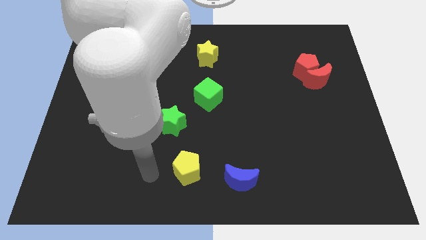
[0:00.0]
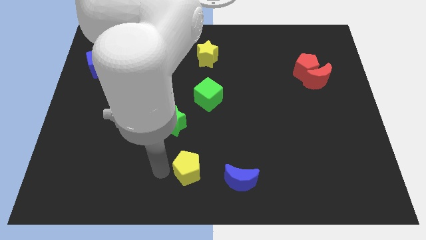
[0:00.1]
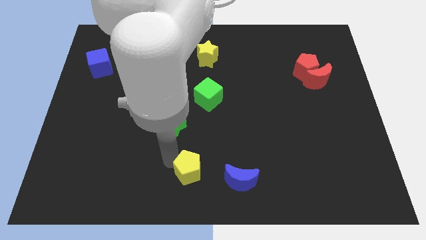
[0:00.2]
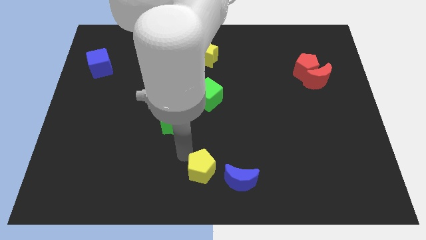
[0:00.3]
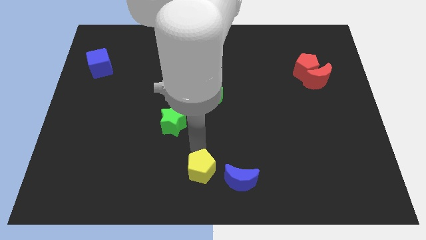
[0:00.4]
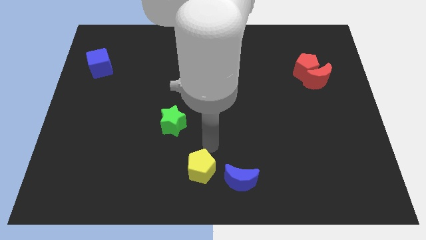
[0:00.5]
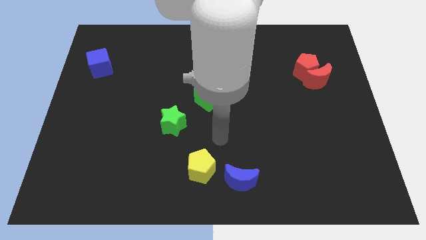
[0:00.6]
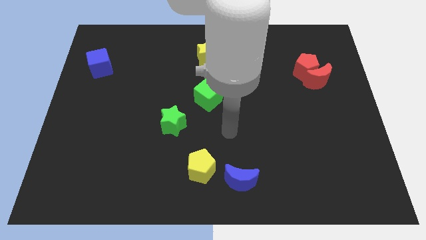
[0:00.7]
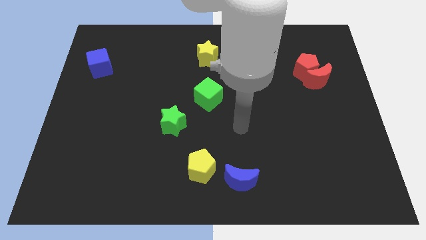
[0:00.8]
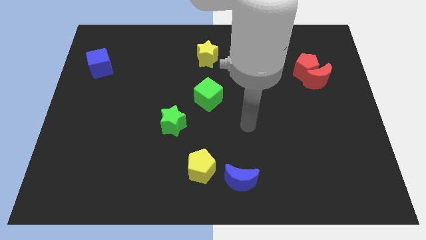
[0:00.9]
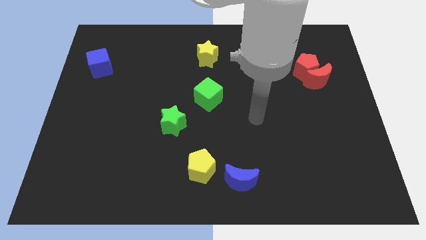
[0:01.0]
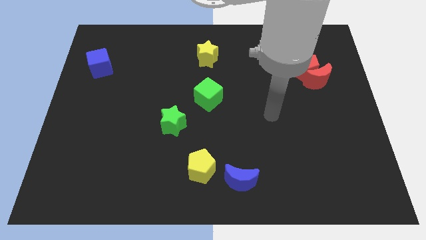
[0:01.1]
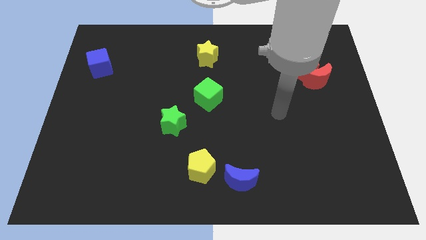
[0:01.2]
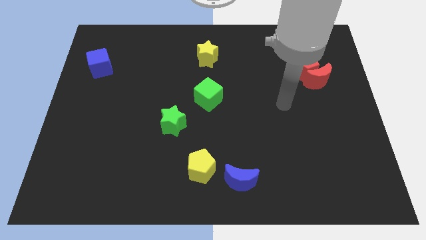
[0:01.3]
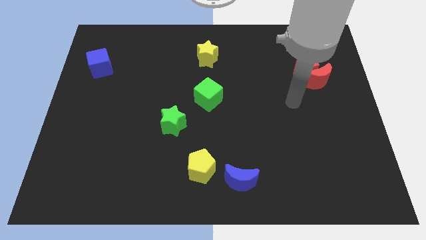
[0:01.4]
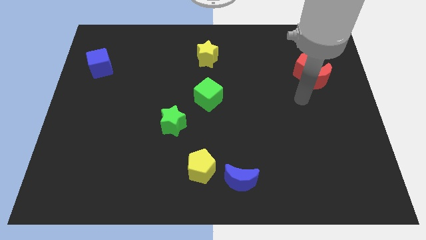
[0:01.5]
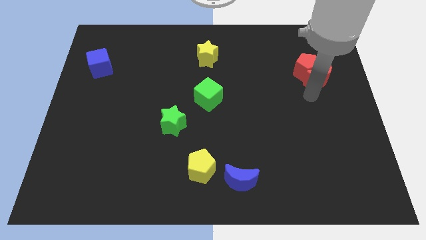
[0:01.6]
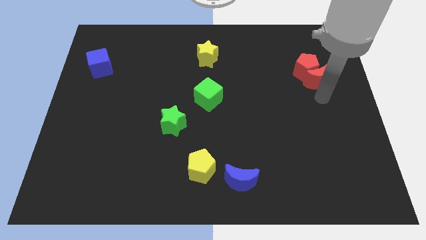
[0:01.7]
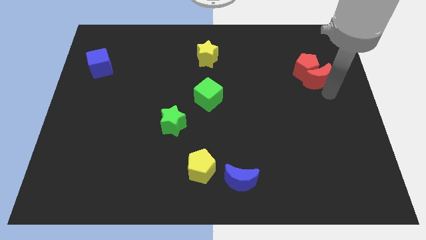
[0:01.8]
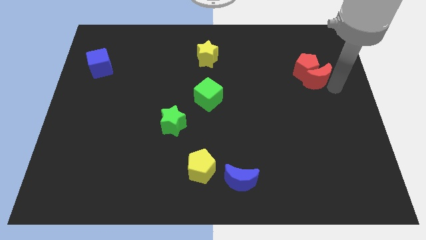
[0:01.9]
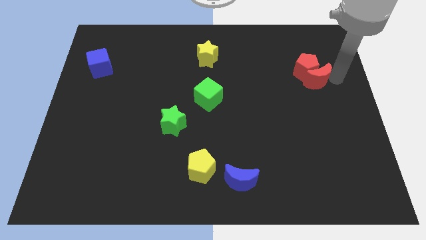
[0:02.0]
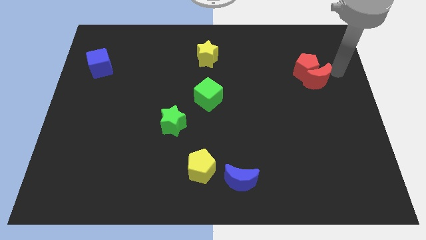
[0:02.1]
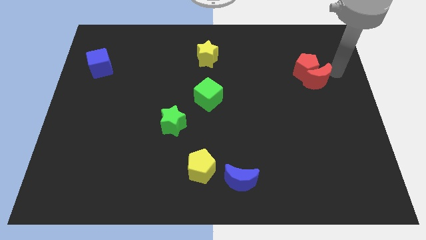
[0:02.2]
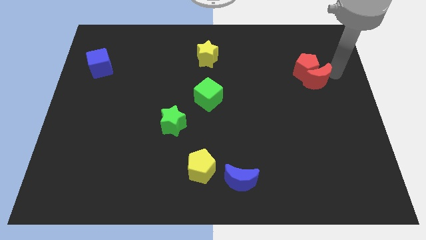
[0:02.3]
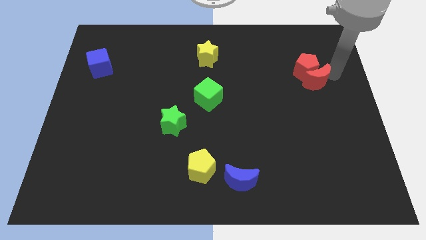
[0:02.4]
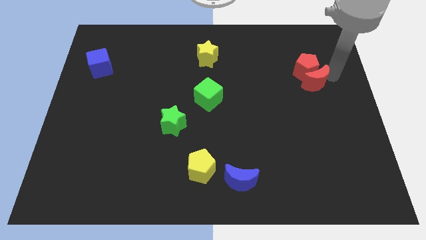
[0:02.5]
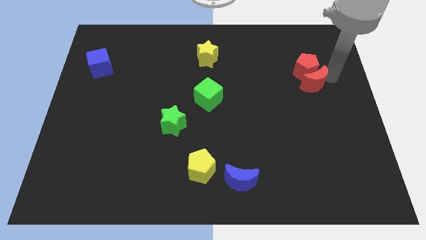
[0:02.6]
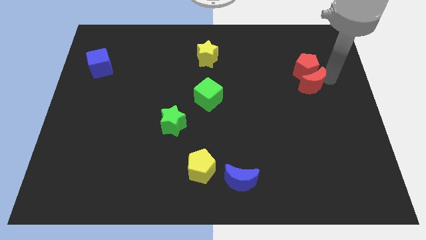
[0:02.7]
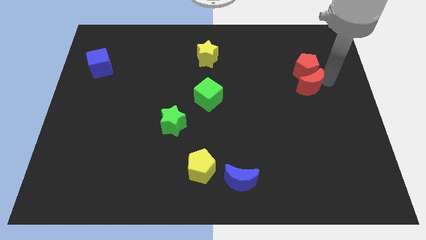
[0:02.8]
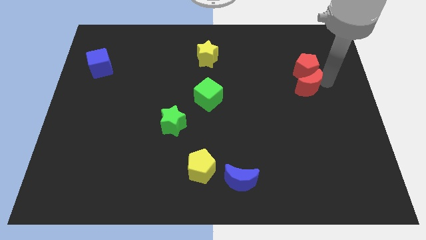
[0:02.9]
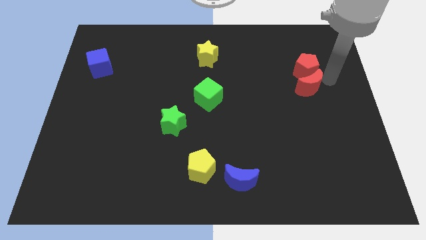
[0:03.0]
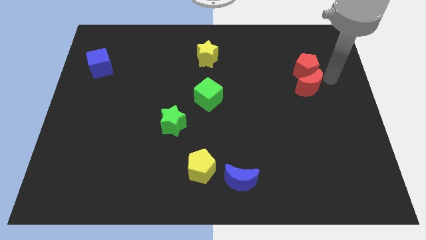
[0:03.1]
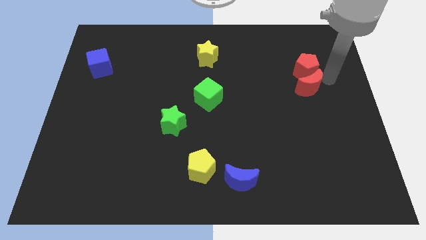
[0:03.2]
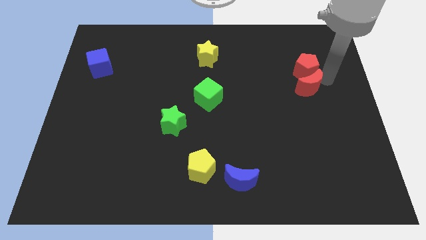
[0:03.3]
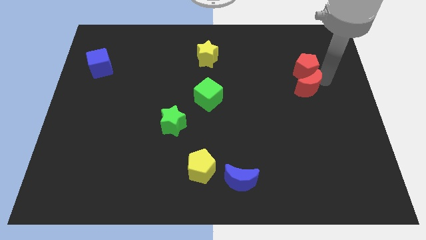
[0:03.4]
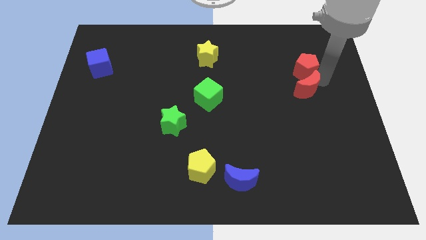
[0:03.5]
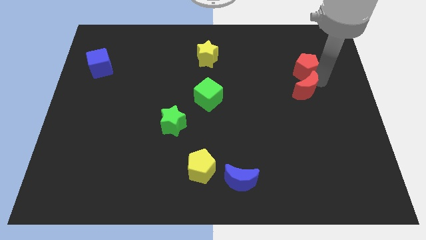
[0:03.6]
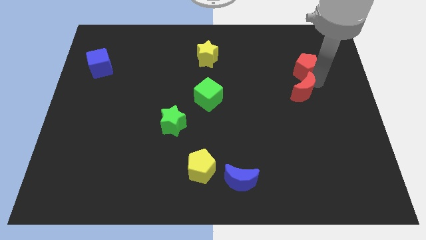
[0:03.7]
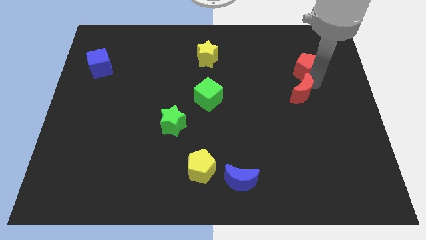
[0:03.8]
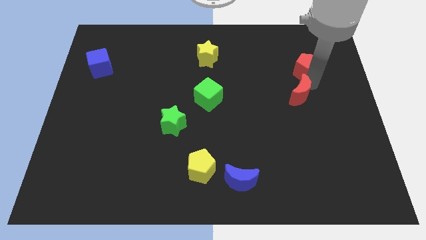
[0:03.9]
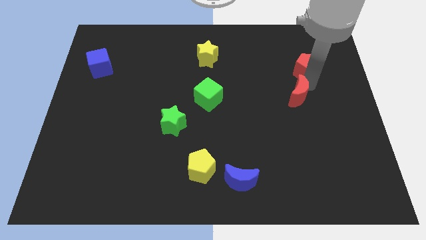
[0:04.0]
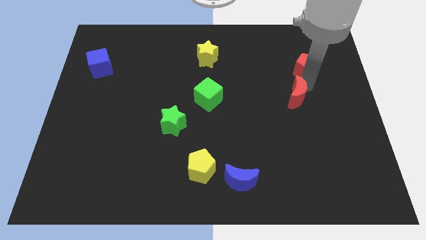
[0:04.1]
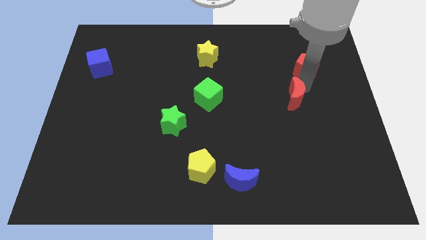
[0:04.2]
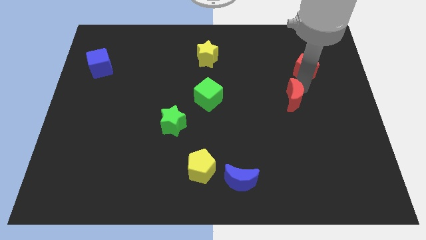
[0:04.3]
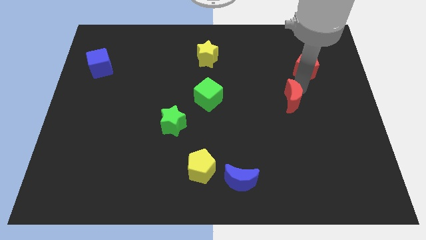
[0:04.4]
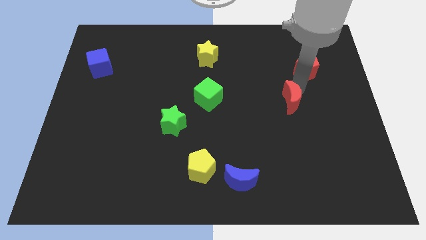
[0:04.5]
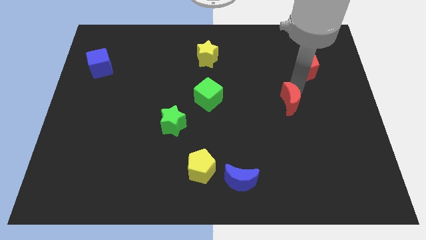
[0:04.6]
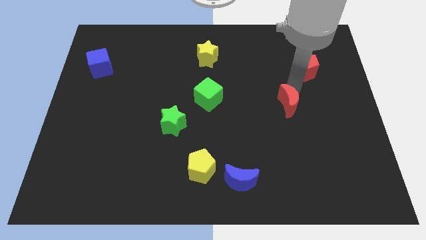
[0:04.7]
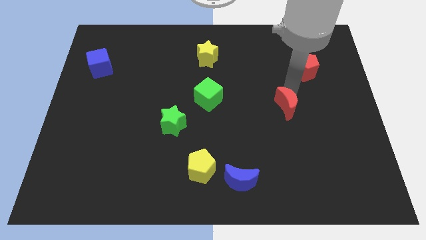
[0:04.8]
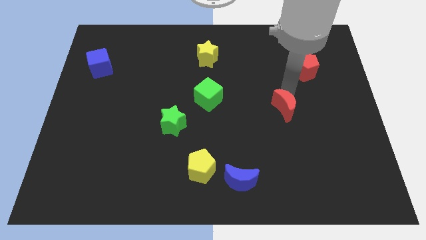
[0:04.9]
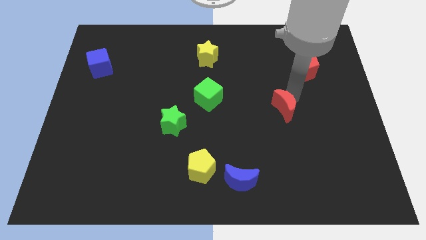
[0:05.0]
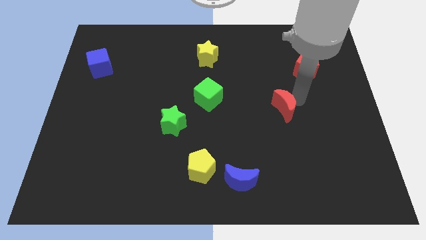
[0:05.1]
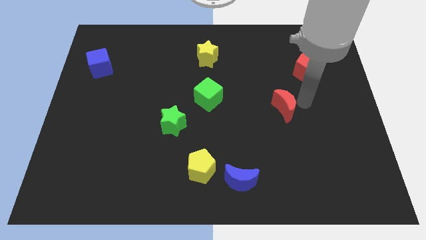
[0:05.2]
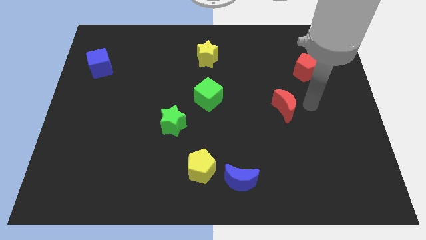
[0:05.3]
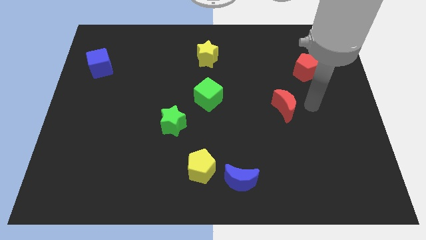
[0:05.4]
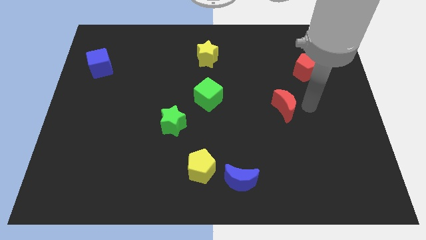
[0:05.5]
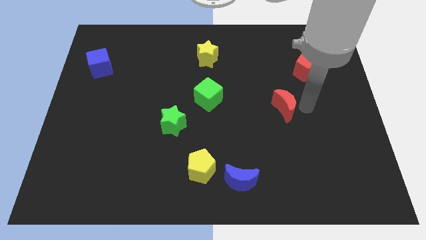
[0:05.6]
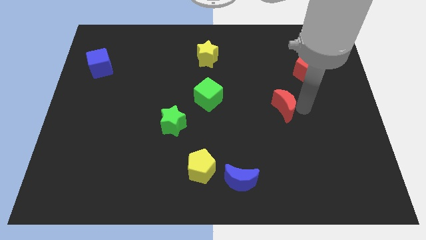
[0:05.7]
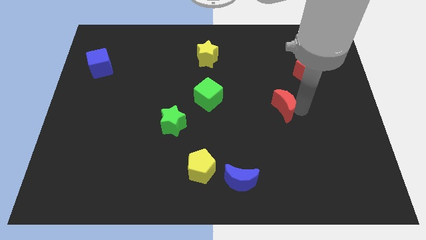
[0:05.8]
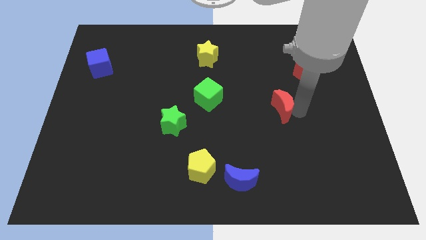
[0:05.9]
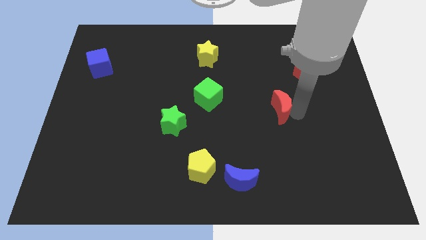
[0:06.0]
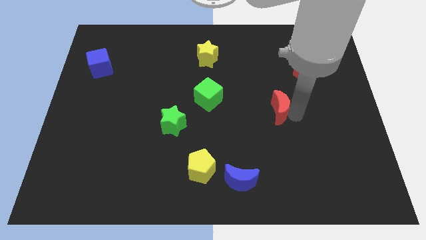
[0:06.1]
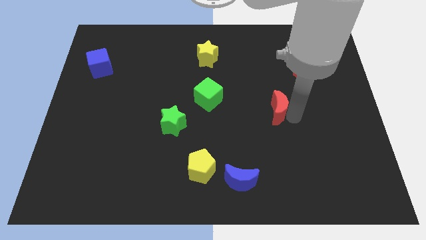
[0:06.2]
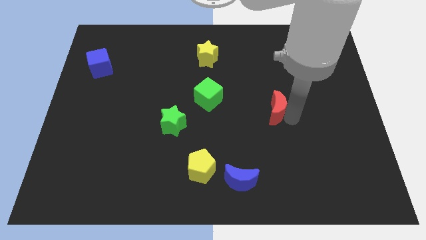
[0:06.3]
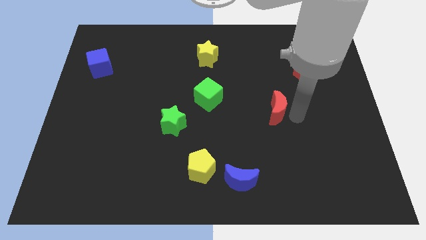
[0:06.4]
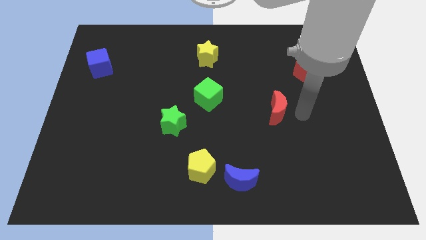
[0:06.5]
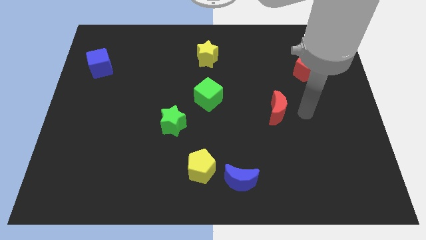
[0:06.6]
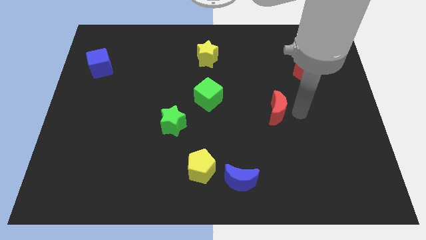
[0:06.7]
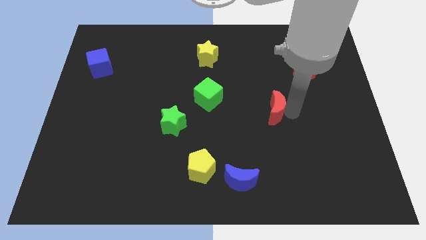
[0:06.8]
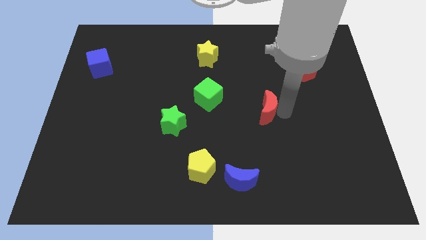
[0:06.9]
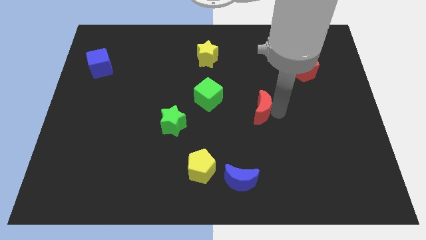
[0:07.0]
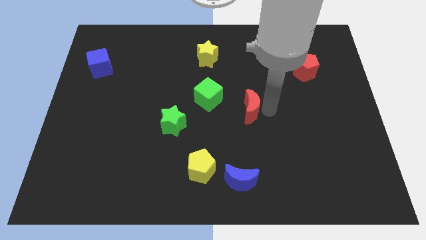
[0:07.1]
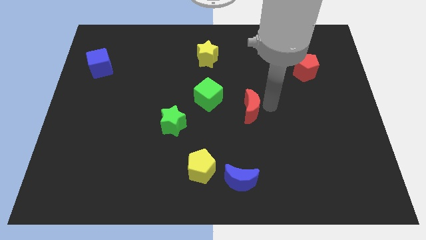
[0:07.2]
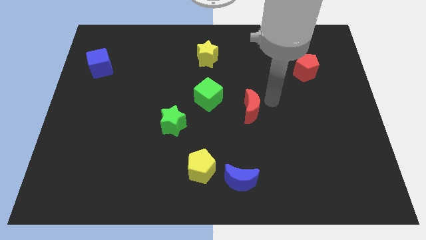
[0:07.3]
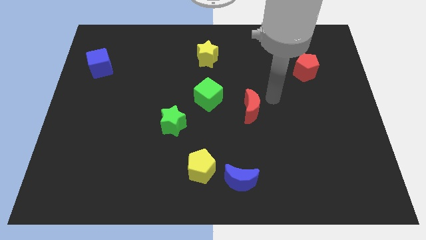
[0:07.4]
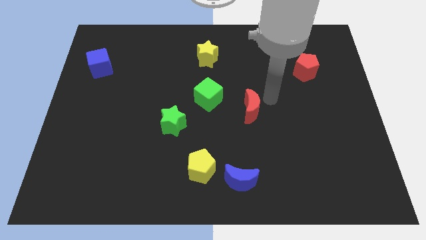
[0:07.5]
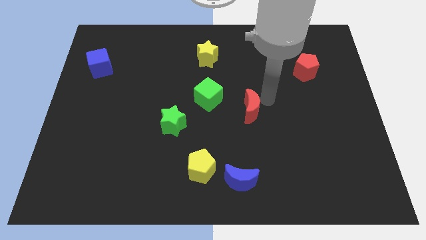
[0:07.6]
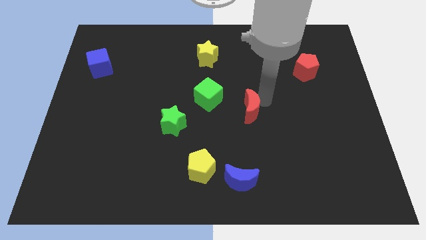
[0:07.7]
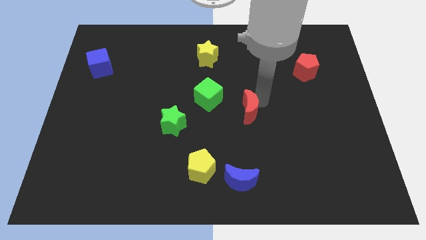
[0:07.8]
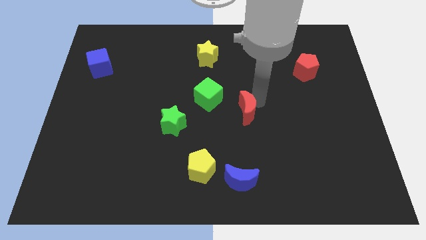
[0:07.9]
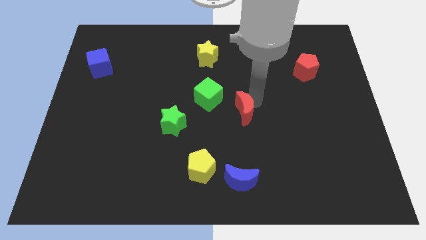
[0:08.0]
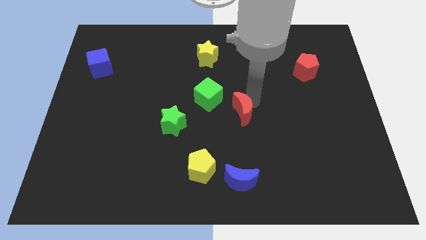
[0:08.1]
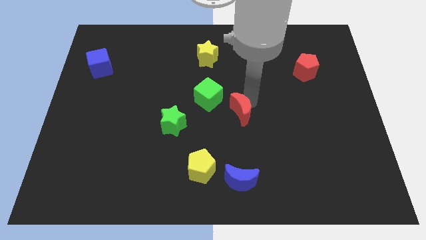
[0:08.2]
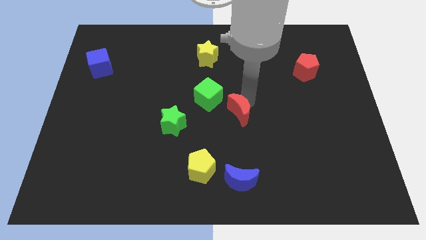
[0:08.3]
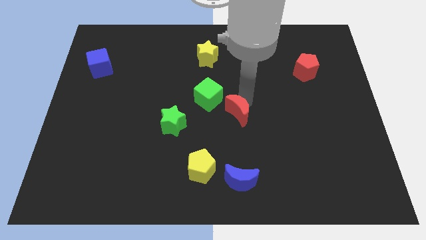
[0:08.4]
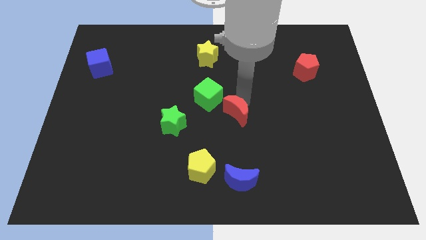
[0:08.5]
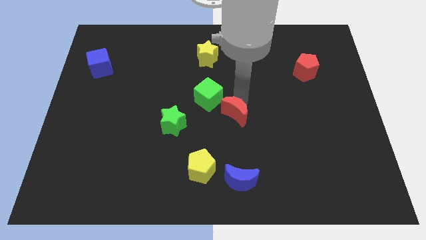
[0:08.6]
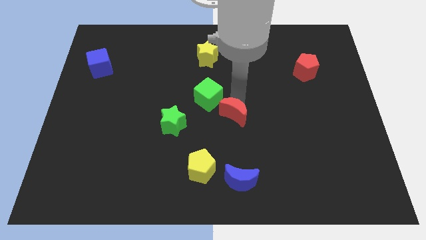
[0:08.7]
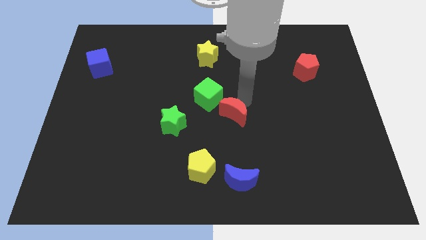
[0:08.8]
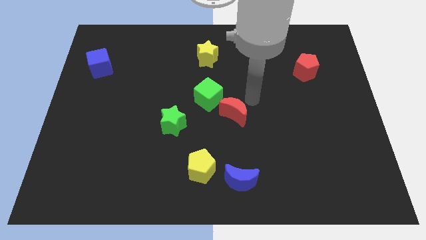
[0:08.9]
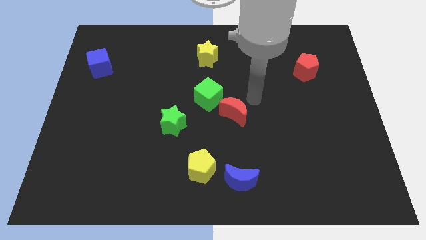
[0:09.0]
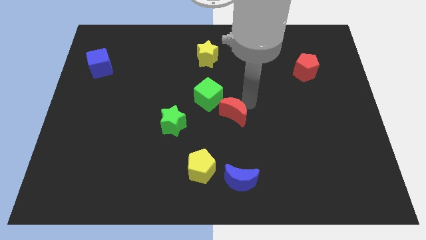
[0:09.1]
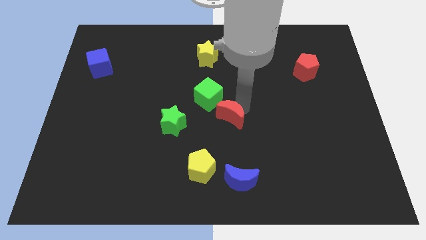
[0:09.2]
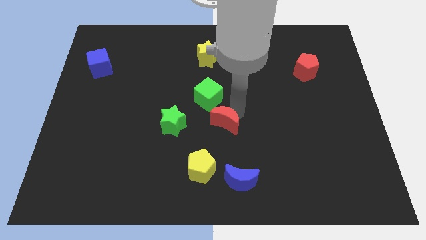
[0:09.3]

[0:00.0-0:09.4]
slide the red moon to the bottom side of the green cube
